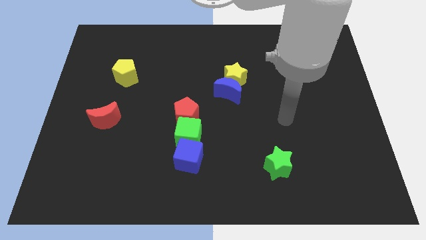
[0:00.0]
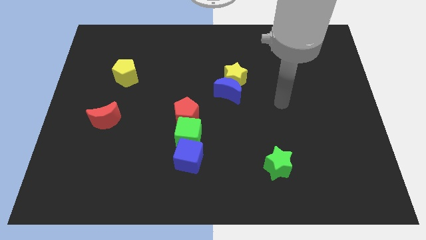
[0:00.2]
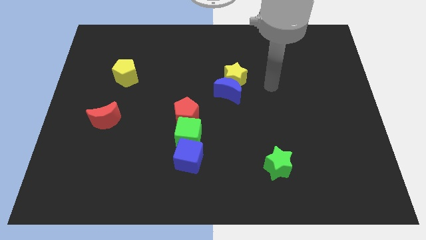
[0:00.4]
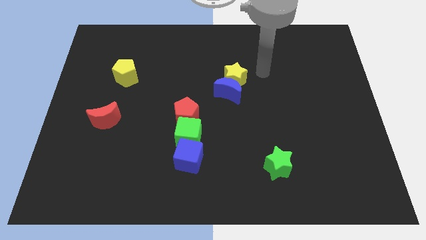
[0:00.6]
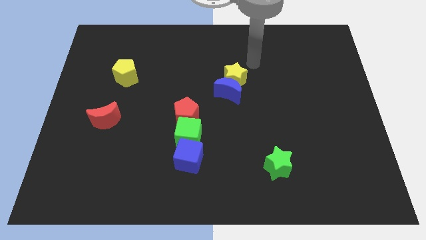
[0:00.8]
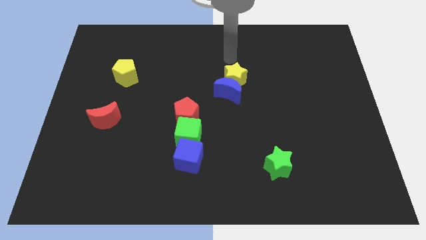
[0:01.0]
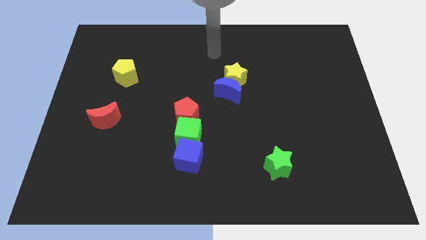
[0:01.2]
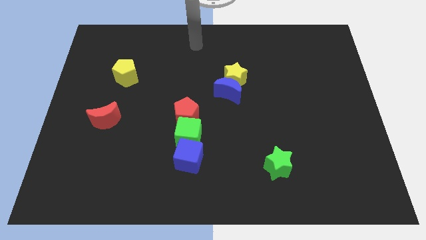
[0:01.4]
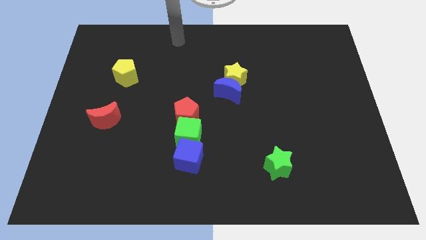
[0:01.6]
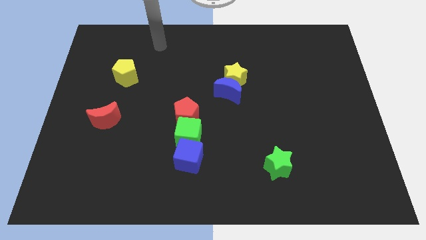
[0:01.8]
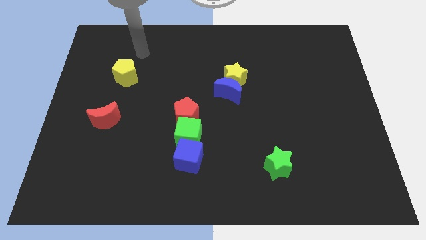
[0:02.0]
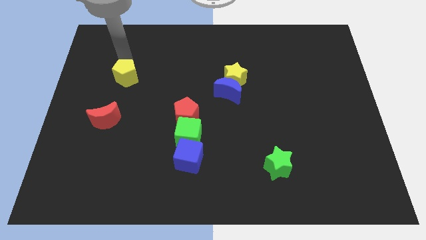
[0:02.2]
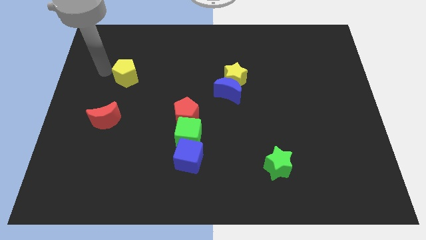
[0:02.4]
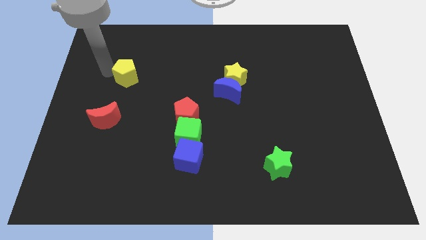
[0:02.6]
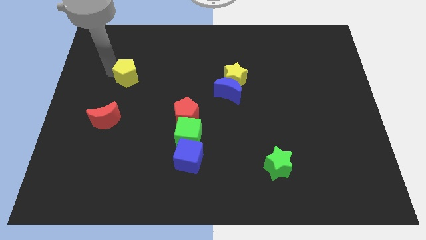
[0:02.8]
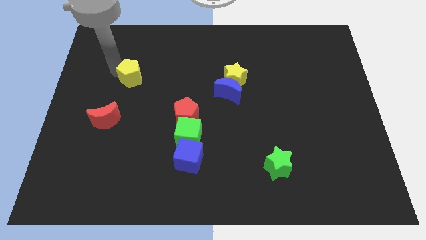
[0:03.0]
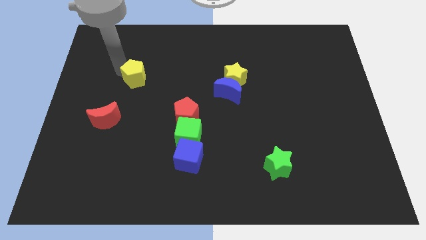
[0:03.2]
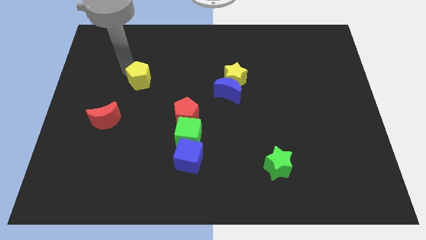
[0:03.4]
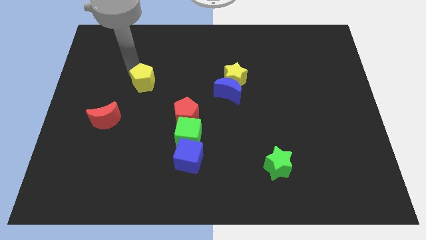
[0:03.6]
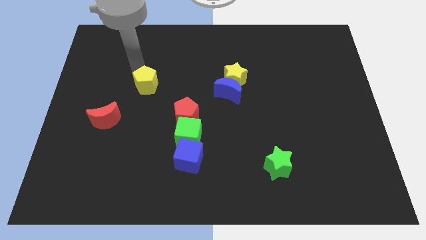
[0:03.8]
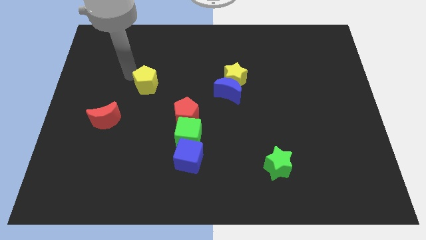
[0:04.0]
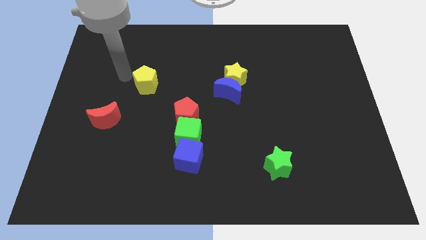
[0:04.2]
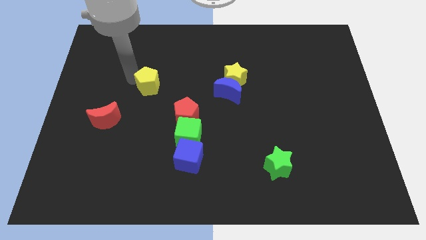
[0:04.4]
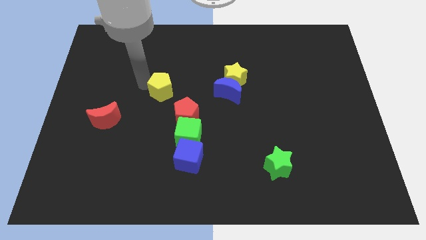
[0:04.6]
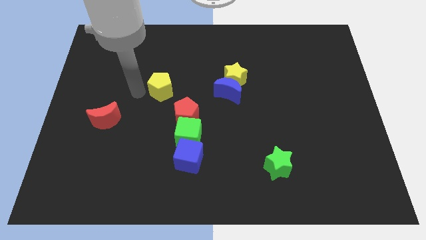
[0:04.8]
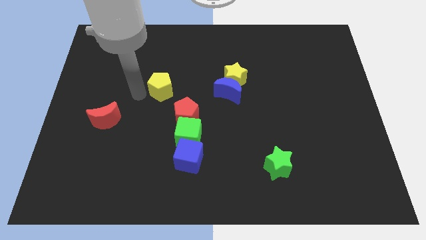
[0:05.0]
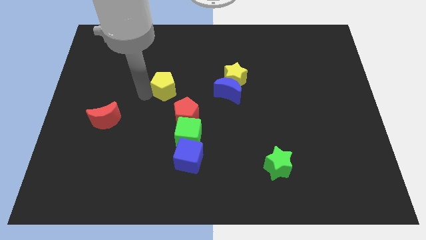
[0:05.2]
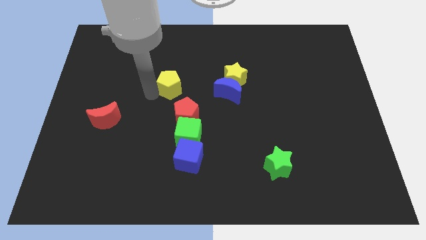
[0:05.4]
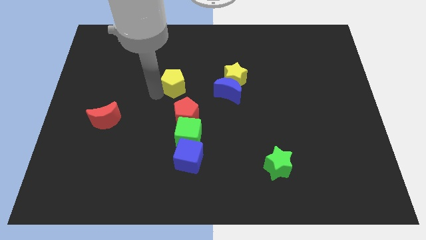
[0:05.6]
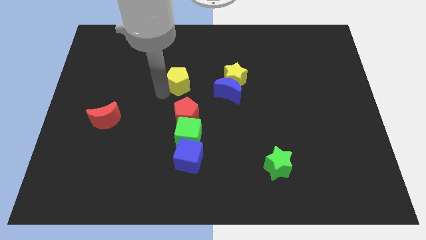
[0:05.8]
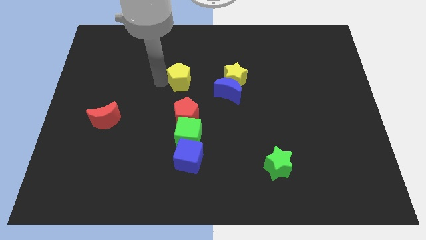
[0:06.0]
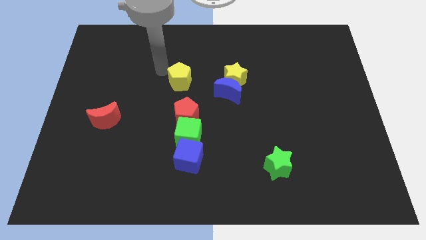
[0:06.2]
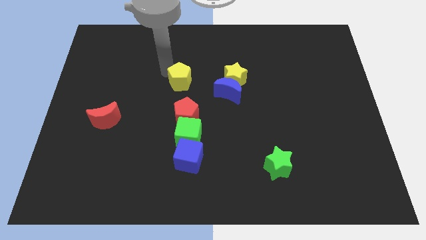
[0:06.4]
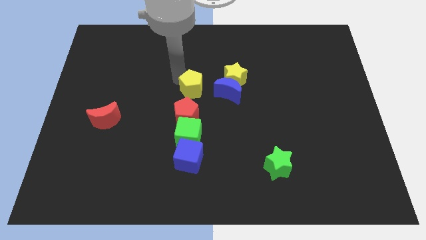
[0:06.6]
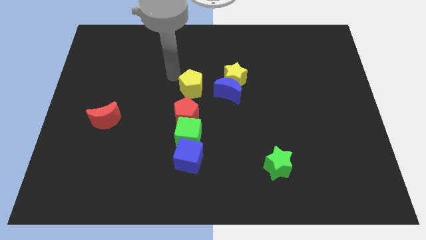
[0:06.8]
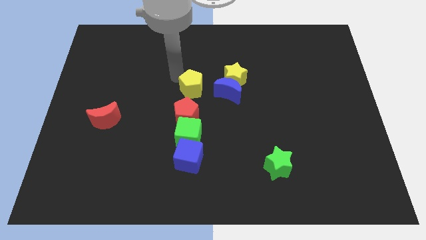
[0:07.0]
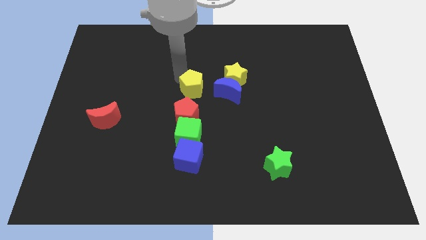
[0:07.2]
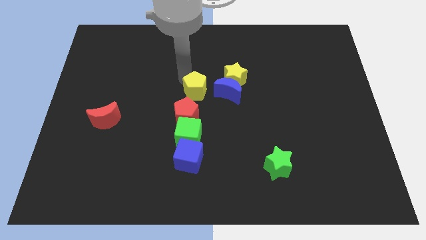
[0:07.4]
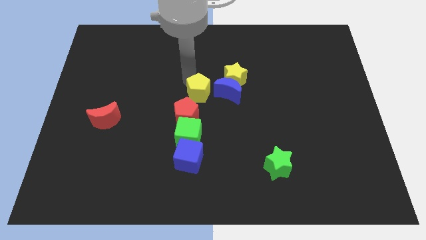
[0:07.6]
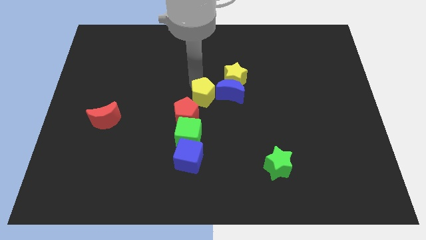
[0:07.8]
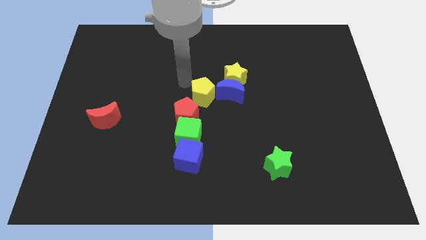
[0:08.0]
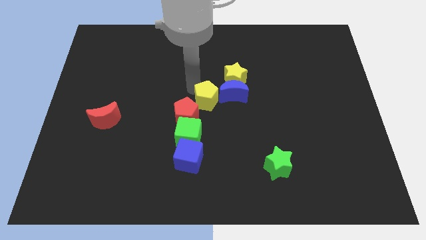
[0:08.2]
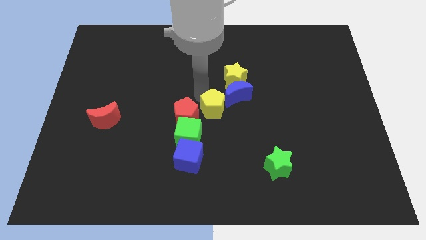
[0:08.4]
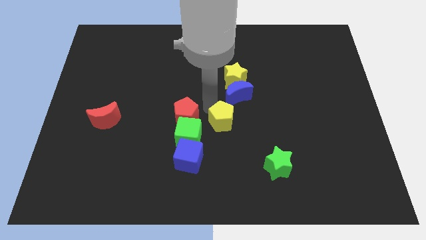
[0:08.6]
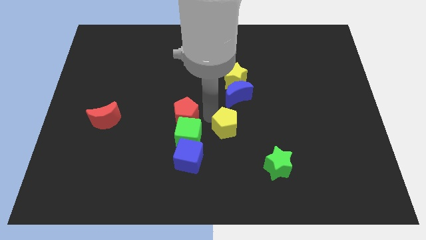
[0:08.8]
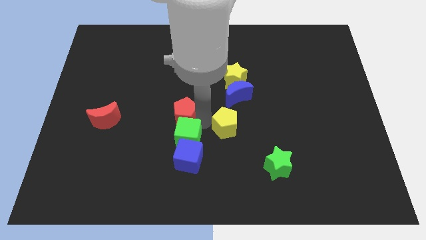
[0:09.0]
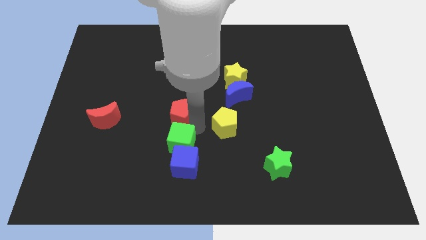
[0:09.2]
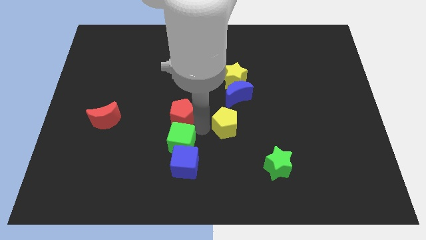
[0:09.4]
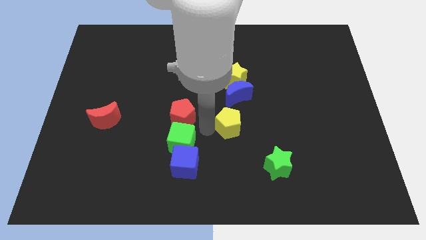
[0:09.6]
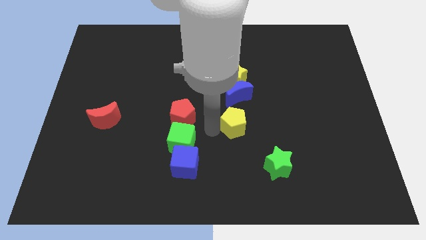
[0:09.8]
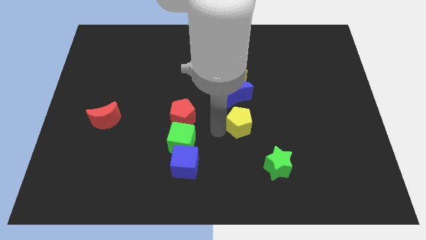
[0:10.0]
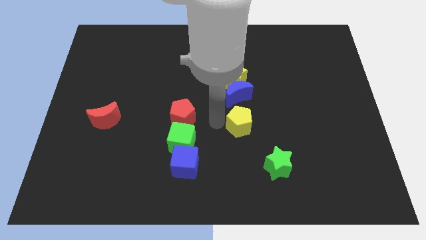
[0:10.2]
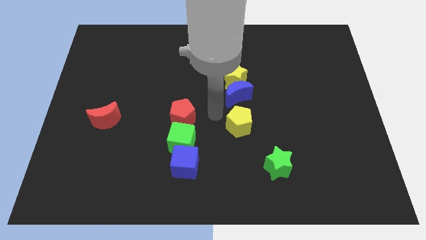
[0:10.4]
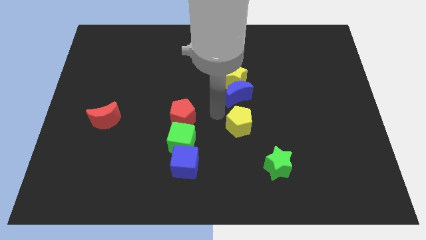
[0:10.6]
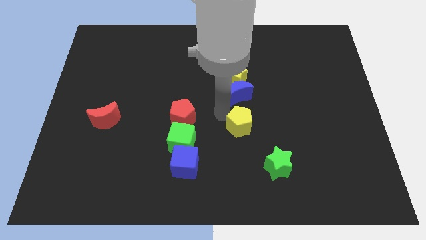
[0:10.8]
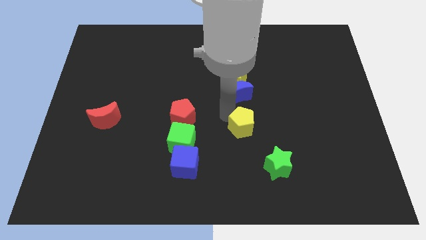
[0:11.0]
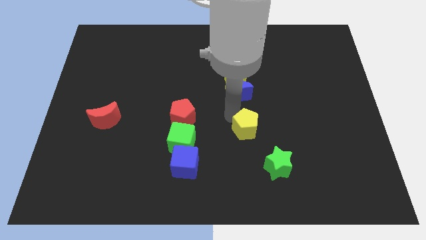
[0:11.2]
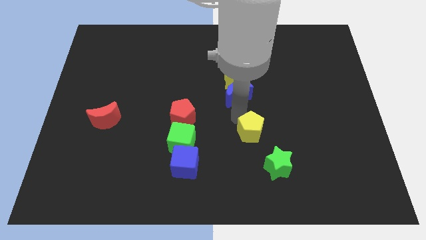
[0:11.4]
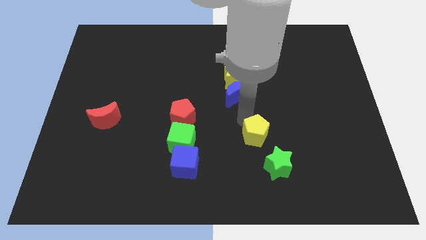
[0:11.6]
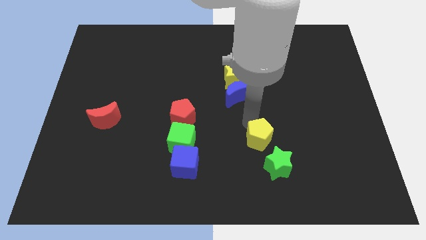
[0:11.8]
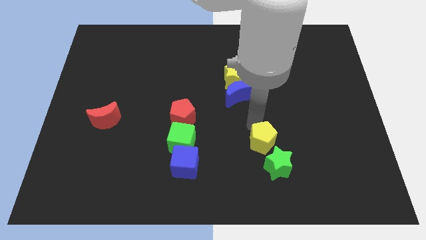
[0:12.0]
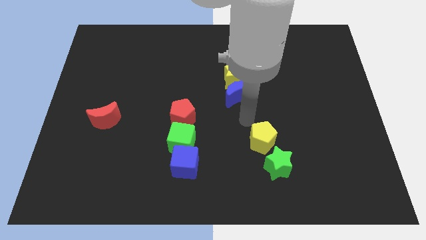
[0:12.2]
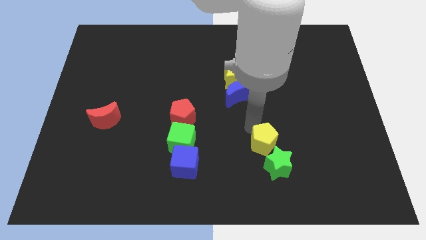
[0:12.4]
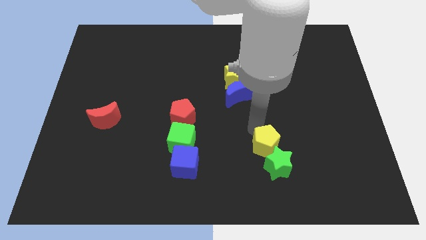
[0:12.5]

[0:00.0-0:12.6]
put the yellow pentagon close to the green star

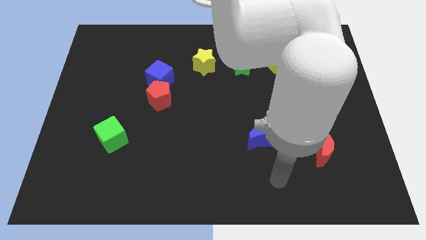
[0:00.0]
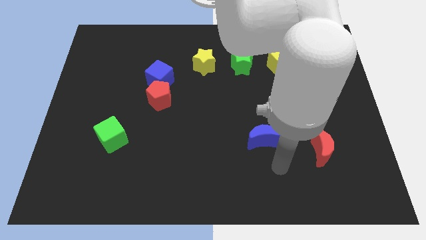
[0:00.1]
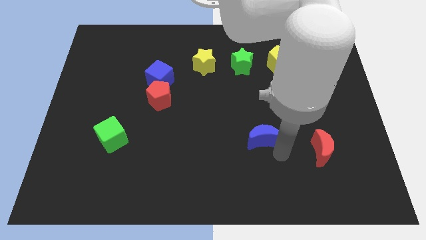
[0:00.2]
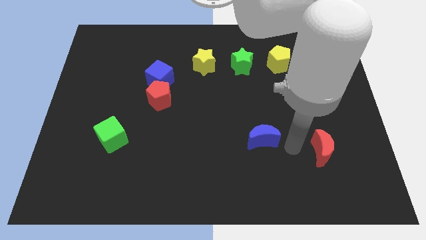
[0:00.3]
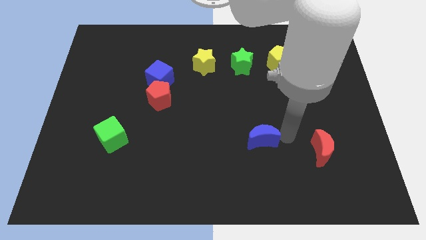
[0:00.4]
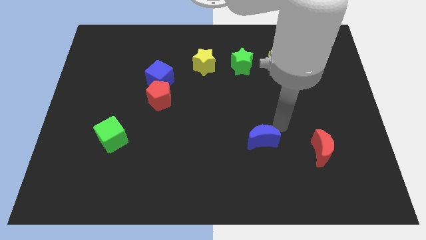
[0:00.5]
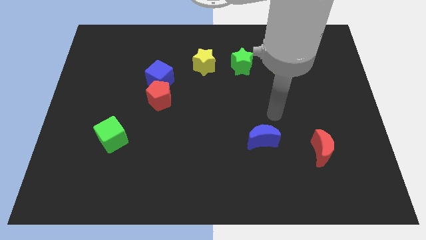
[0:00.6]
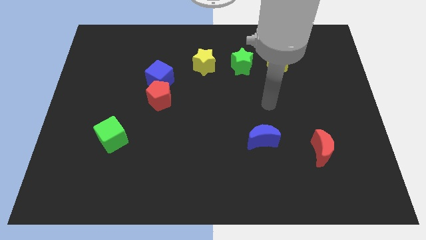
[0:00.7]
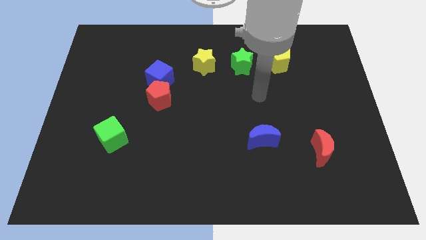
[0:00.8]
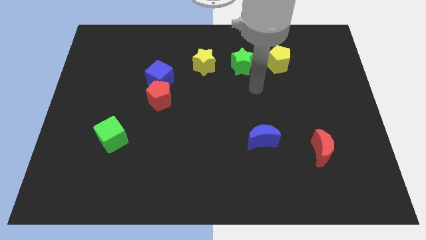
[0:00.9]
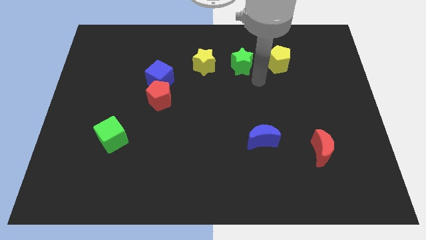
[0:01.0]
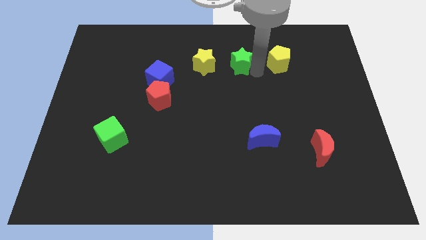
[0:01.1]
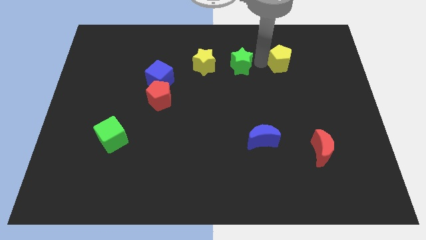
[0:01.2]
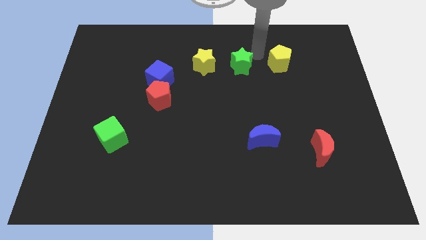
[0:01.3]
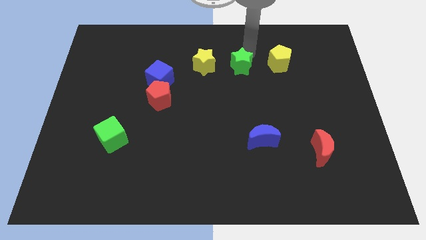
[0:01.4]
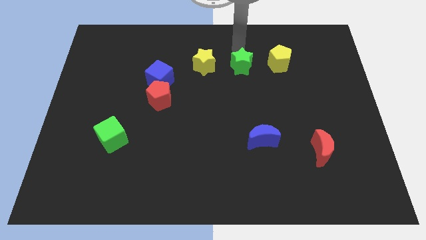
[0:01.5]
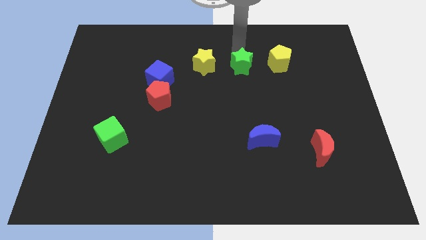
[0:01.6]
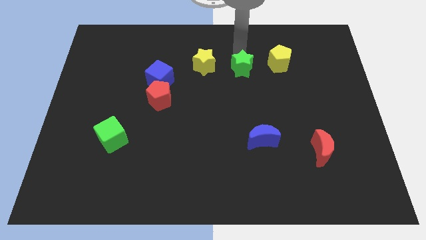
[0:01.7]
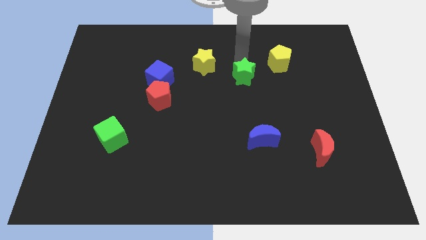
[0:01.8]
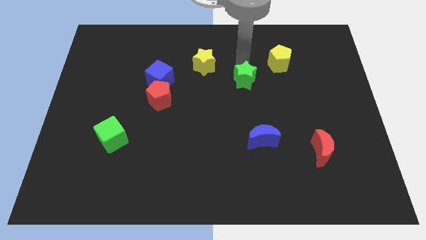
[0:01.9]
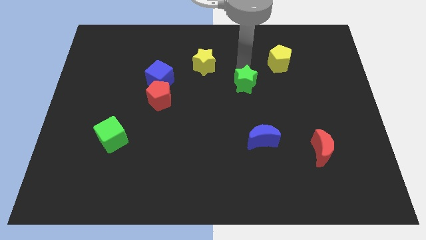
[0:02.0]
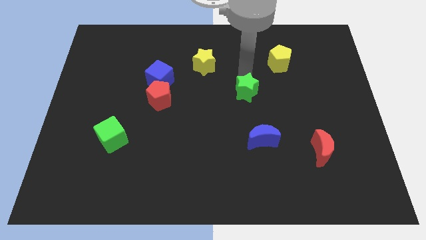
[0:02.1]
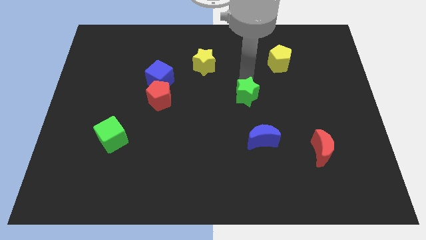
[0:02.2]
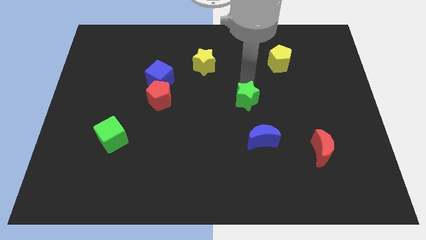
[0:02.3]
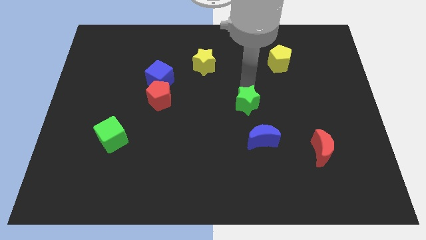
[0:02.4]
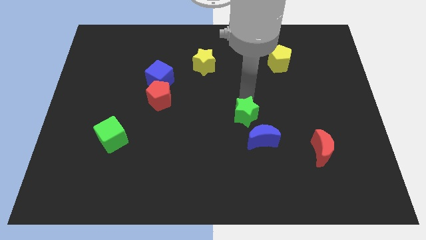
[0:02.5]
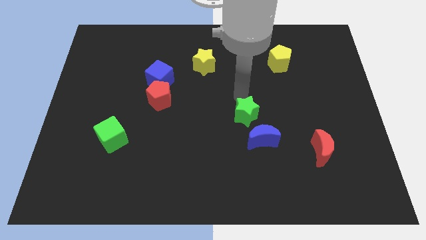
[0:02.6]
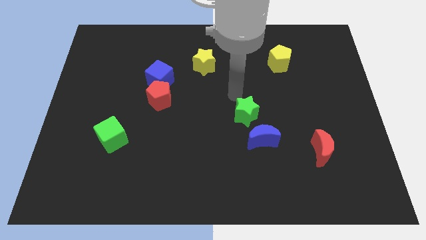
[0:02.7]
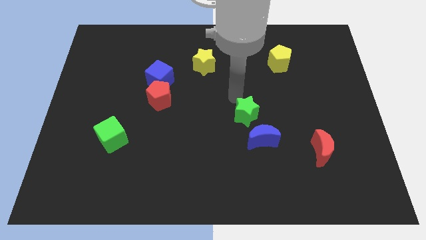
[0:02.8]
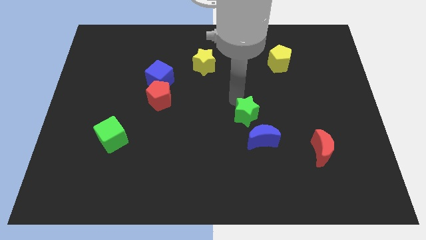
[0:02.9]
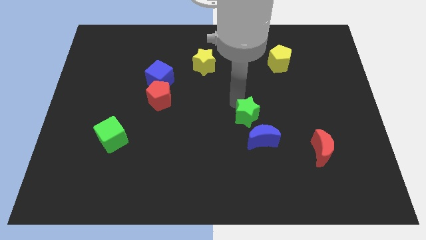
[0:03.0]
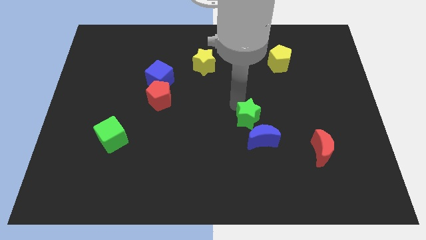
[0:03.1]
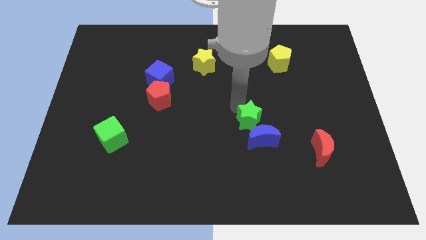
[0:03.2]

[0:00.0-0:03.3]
push the green star close to the blue moon
